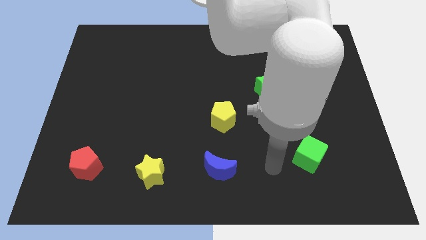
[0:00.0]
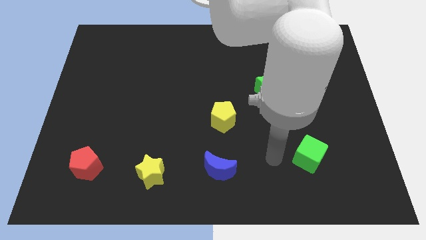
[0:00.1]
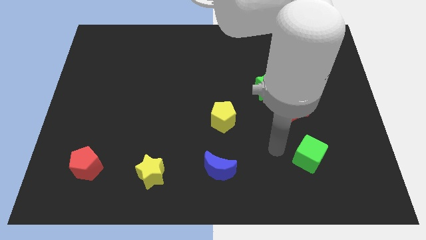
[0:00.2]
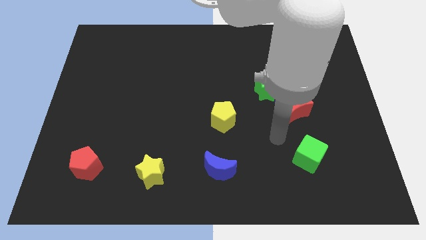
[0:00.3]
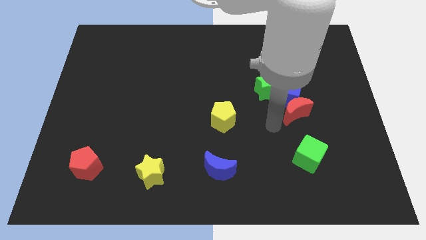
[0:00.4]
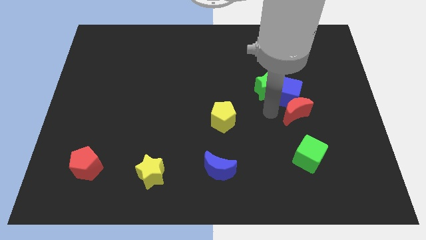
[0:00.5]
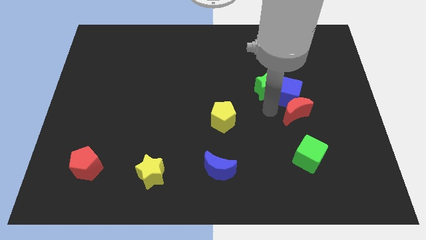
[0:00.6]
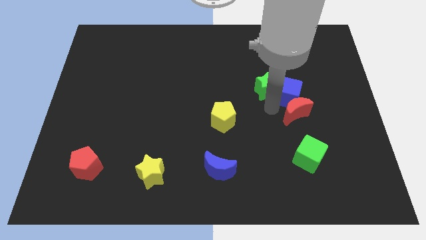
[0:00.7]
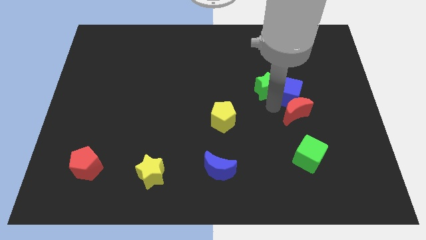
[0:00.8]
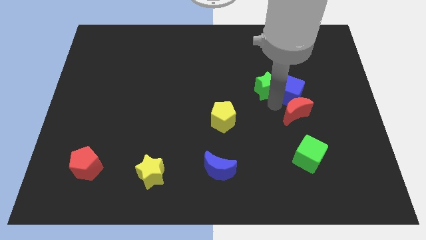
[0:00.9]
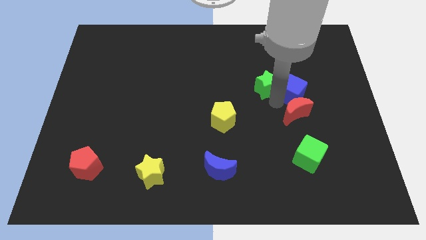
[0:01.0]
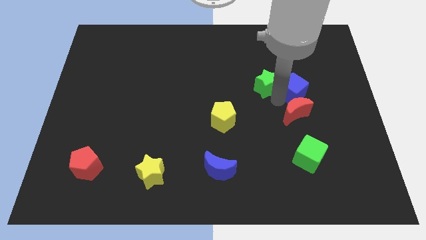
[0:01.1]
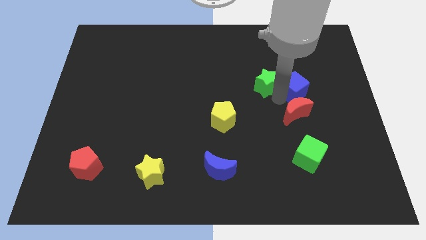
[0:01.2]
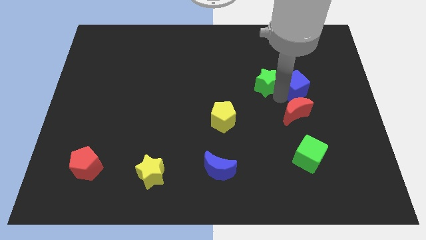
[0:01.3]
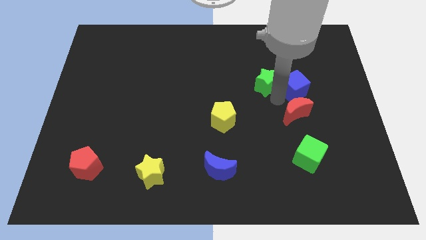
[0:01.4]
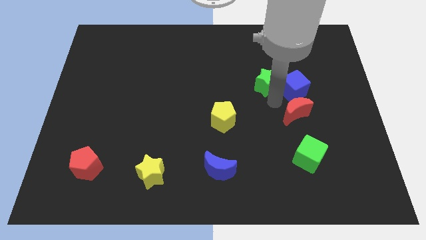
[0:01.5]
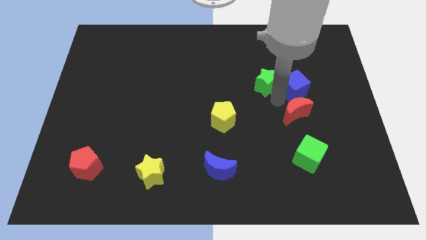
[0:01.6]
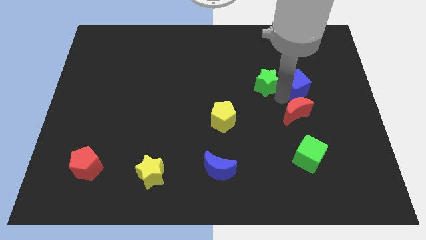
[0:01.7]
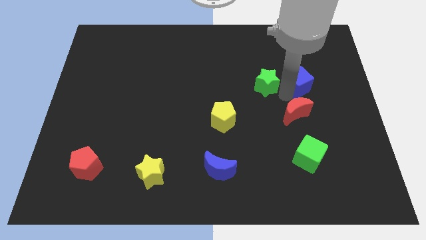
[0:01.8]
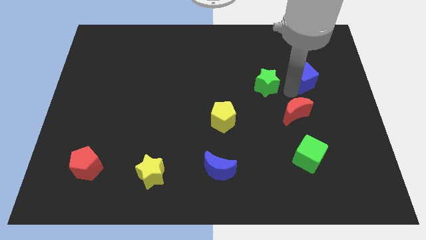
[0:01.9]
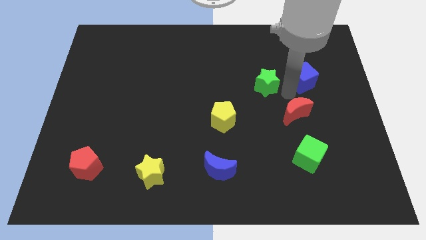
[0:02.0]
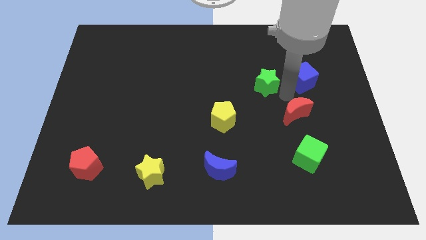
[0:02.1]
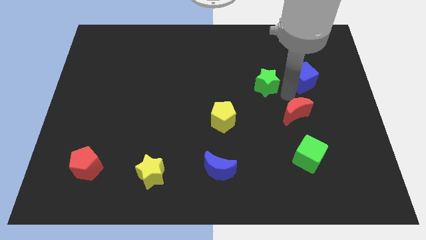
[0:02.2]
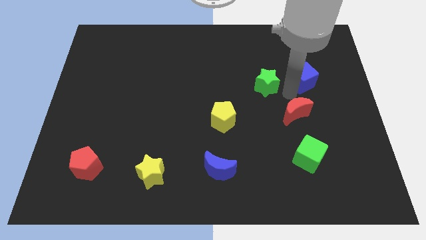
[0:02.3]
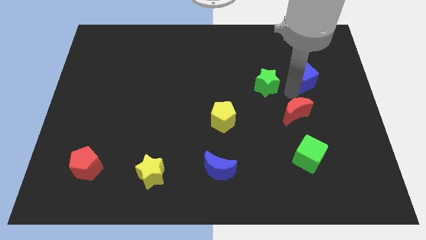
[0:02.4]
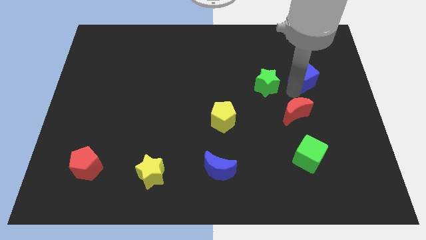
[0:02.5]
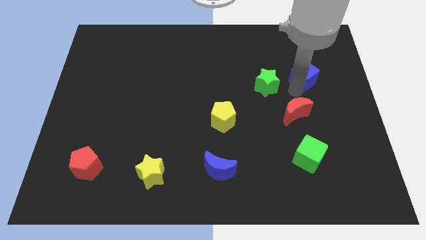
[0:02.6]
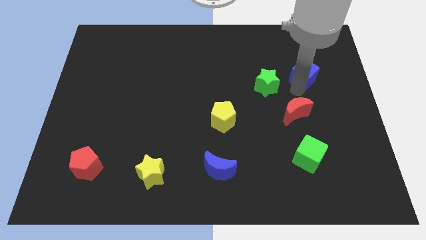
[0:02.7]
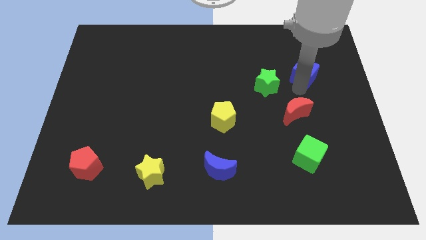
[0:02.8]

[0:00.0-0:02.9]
pull the blue cube apart from the red moon and green star

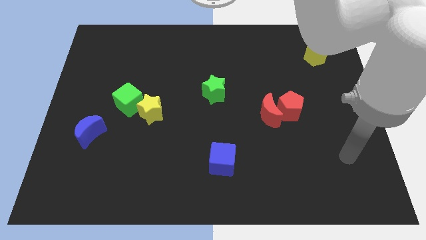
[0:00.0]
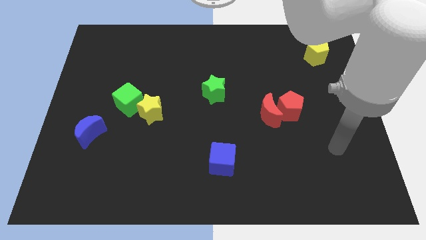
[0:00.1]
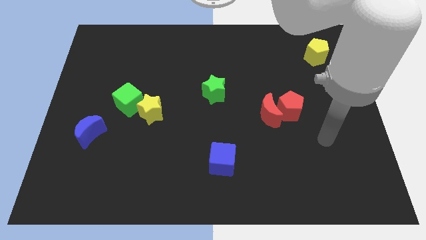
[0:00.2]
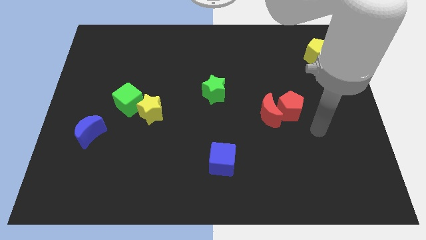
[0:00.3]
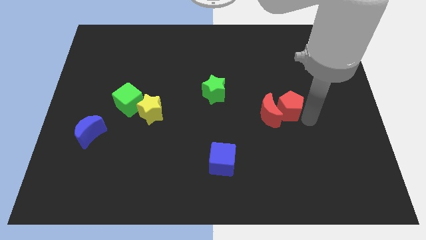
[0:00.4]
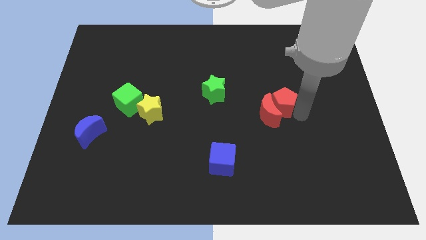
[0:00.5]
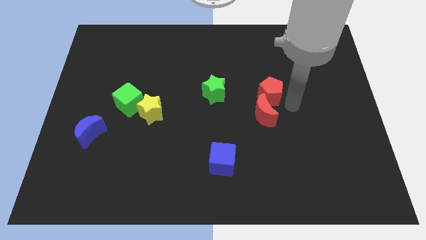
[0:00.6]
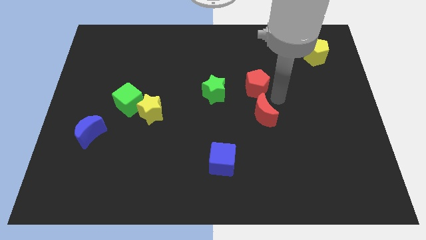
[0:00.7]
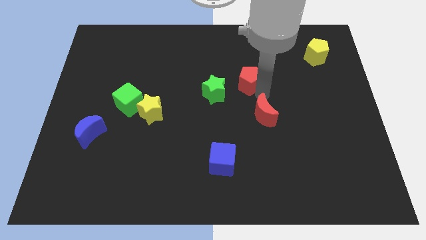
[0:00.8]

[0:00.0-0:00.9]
separate the red moon from the red pentagon

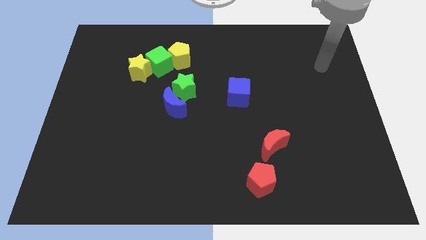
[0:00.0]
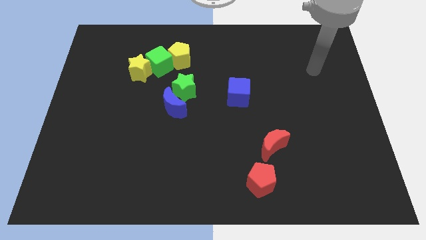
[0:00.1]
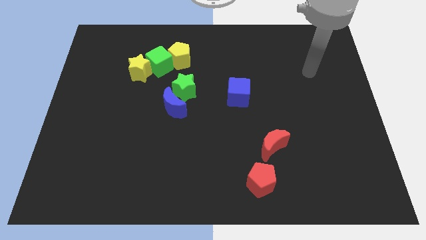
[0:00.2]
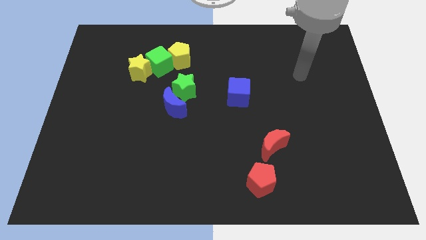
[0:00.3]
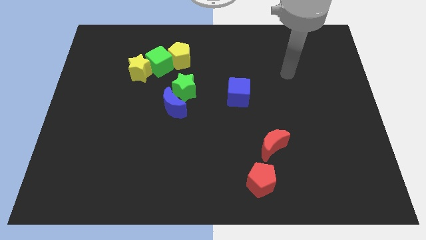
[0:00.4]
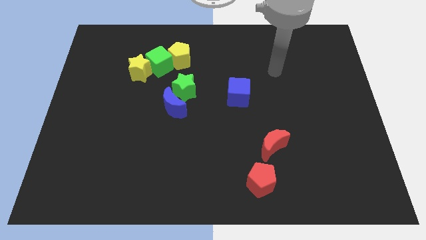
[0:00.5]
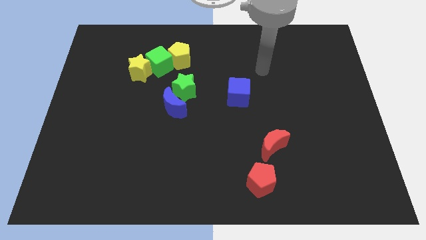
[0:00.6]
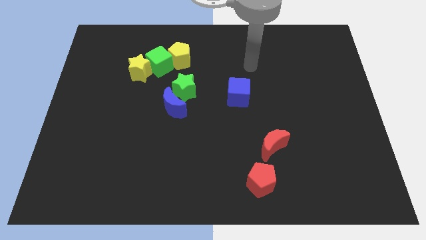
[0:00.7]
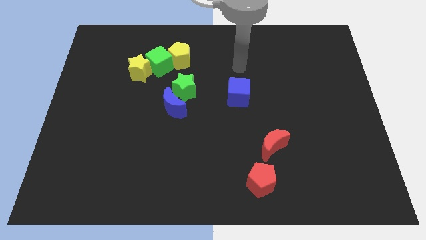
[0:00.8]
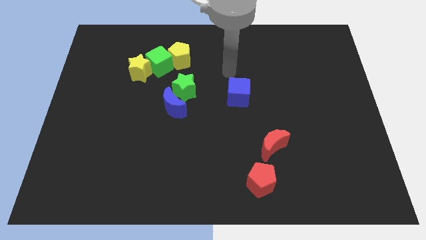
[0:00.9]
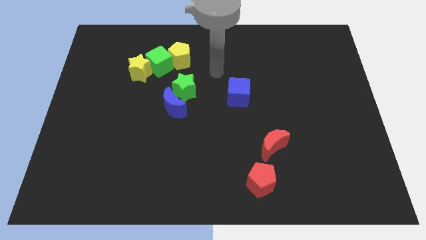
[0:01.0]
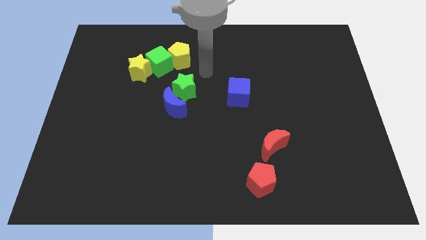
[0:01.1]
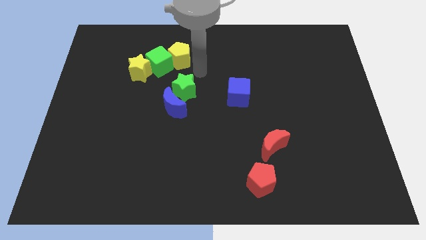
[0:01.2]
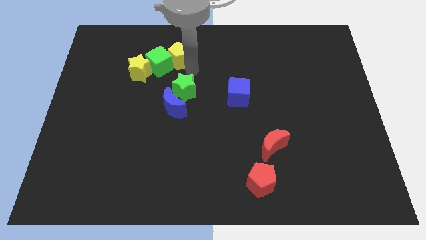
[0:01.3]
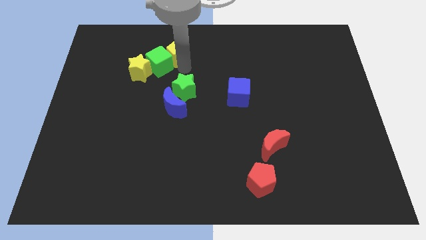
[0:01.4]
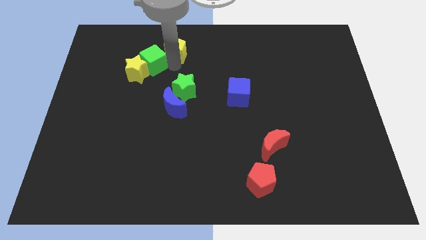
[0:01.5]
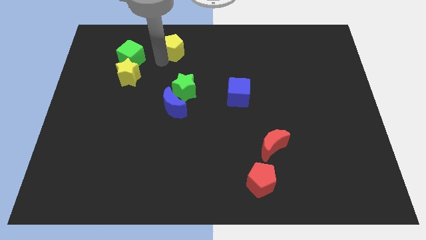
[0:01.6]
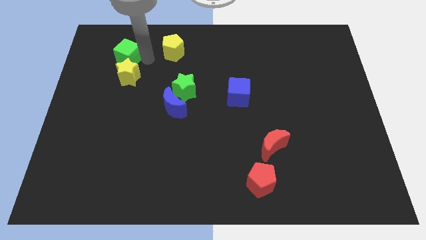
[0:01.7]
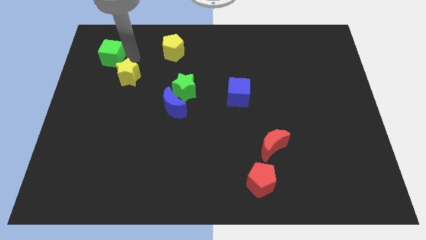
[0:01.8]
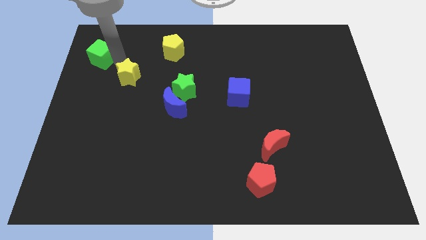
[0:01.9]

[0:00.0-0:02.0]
pull the yellow star apart from the green cube

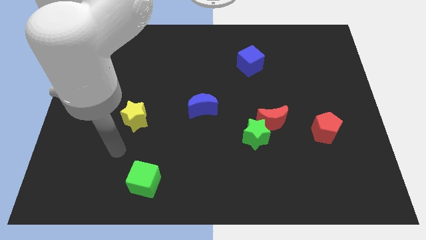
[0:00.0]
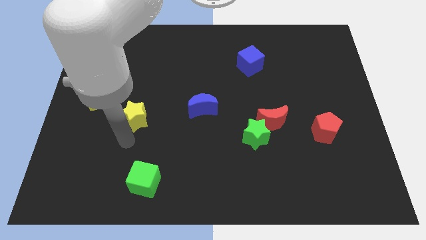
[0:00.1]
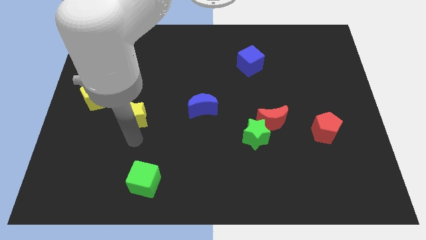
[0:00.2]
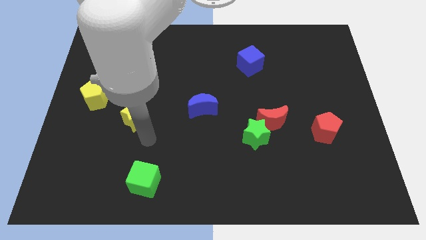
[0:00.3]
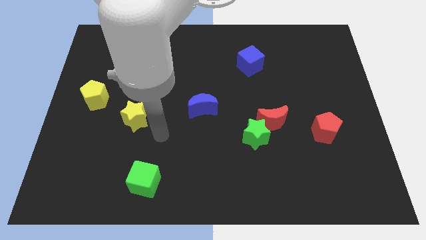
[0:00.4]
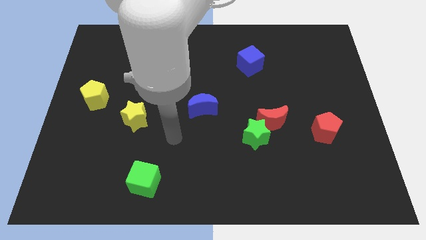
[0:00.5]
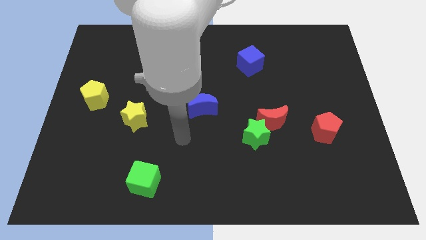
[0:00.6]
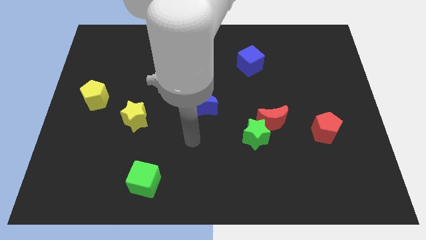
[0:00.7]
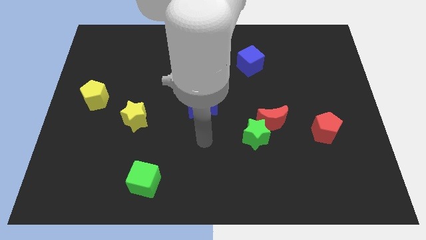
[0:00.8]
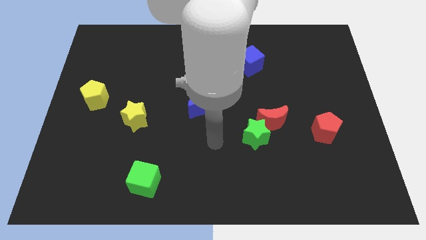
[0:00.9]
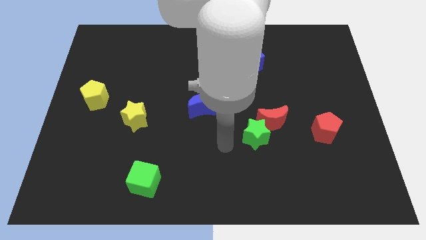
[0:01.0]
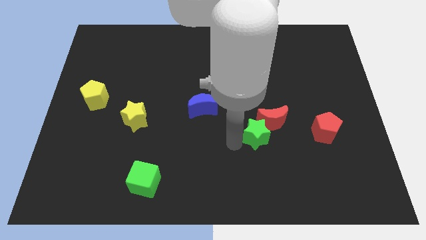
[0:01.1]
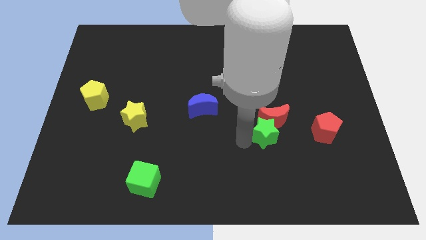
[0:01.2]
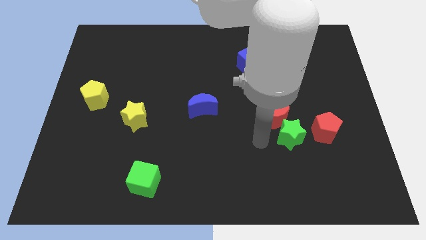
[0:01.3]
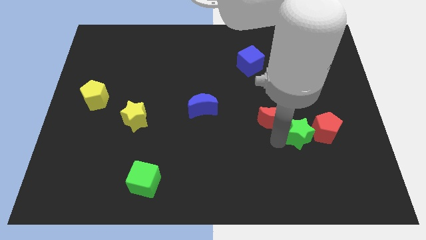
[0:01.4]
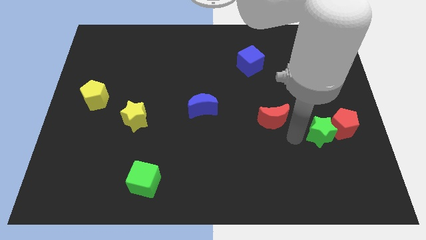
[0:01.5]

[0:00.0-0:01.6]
pull the red moon apart from the green star

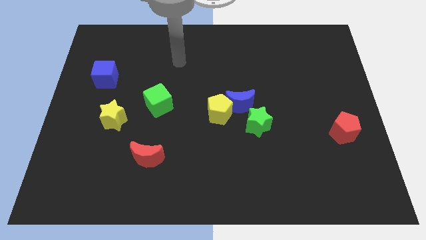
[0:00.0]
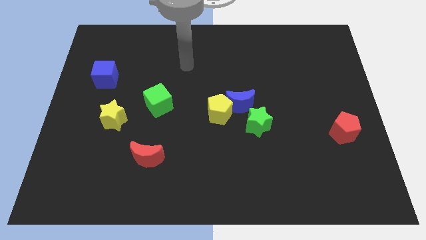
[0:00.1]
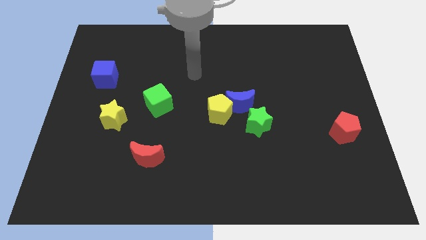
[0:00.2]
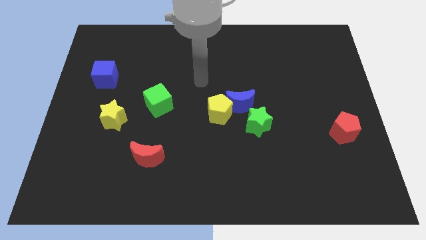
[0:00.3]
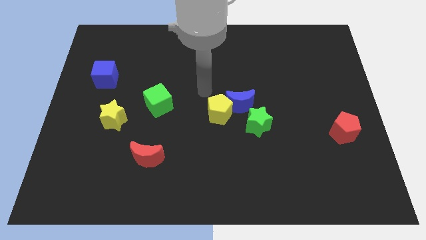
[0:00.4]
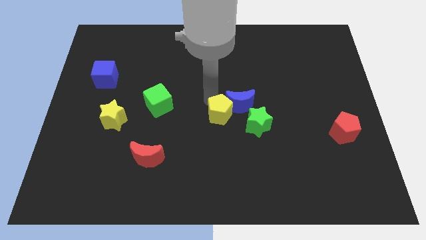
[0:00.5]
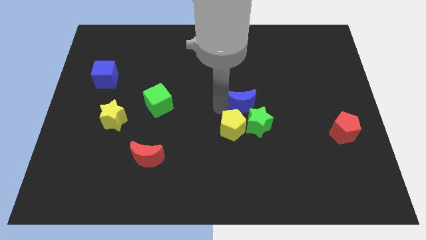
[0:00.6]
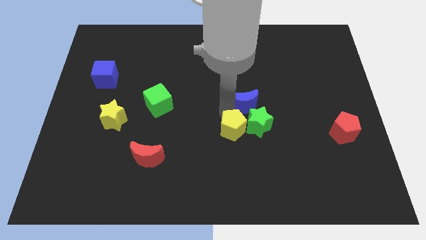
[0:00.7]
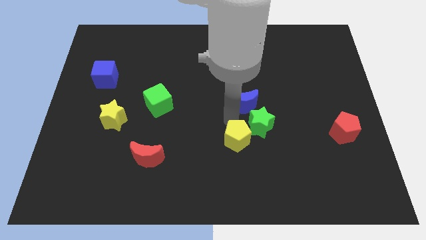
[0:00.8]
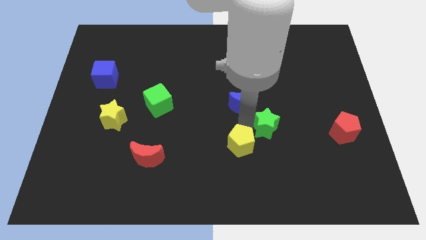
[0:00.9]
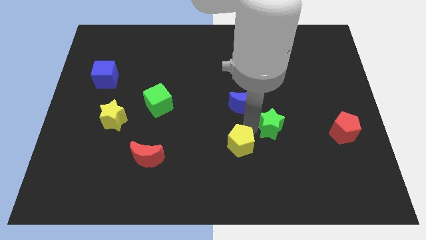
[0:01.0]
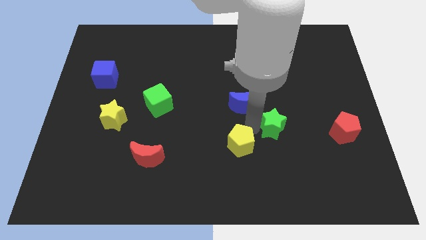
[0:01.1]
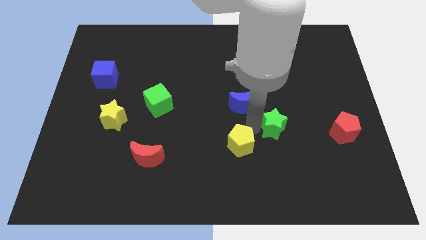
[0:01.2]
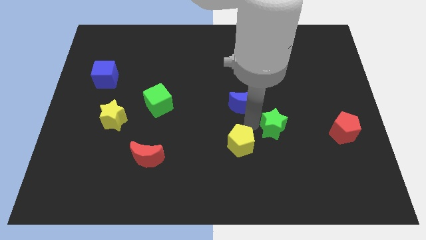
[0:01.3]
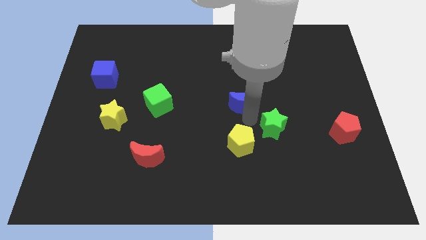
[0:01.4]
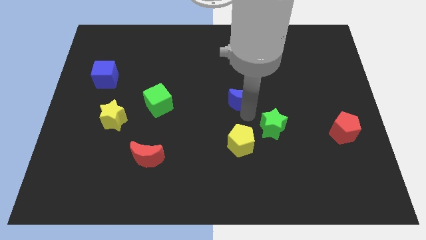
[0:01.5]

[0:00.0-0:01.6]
pull the blue moon apart from the yellow pentagon and green star

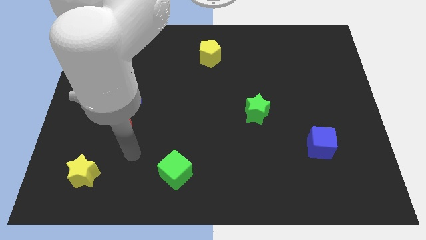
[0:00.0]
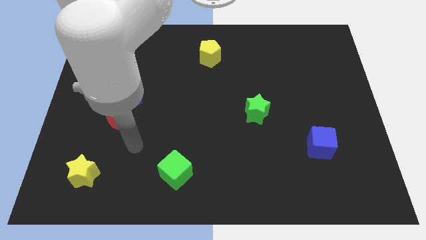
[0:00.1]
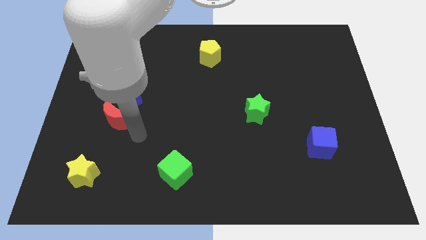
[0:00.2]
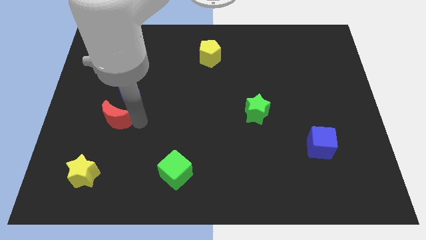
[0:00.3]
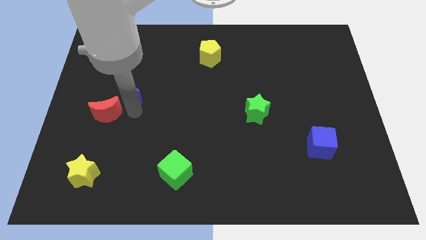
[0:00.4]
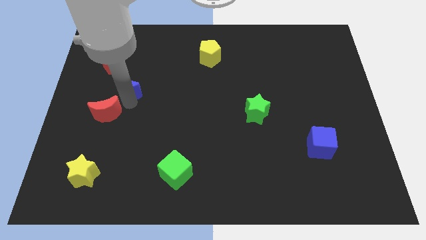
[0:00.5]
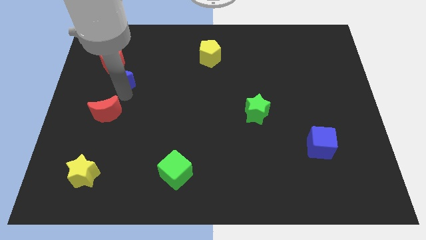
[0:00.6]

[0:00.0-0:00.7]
move the red moon away from the blue moon
